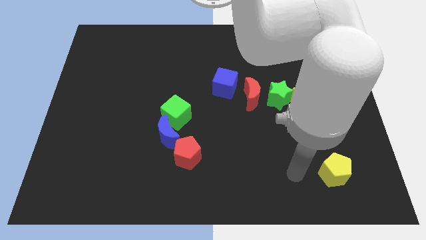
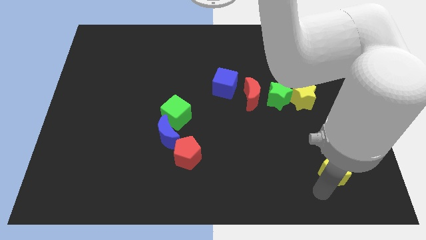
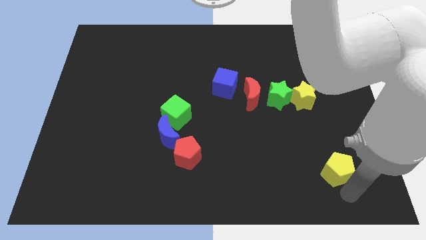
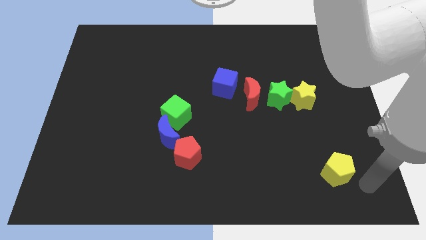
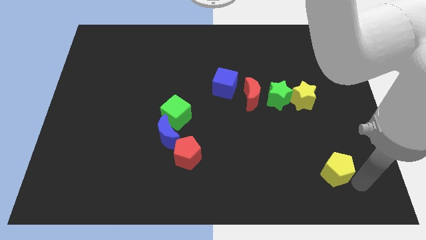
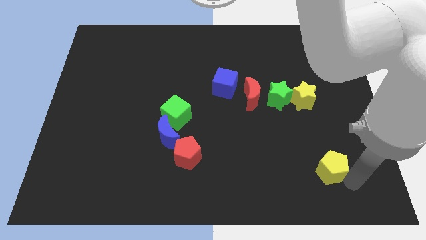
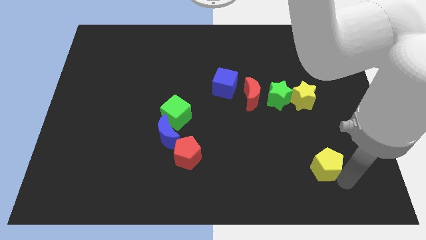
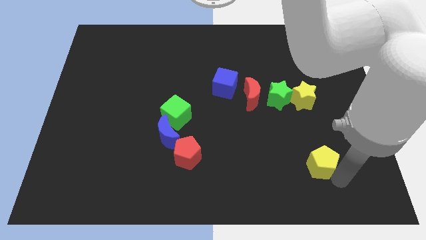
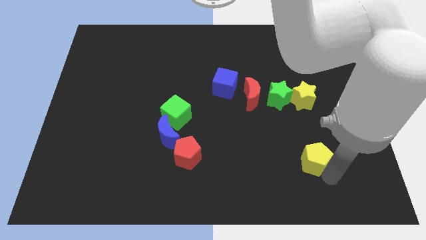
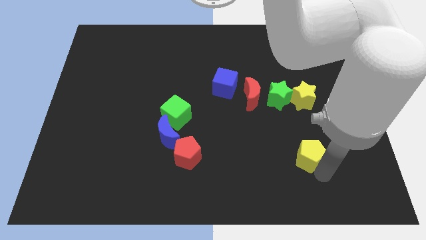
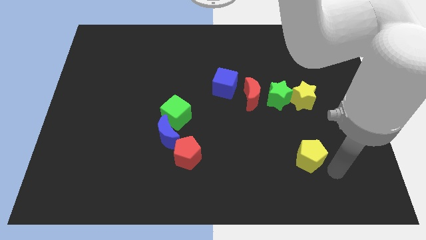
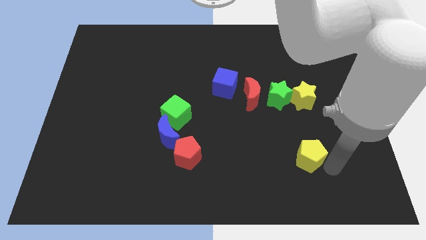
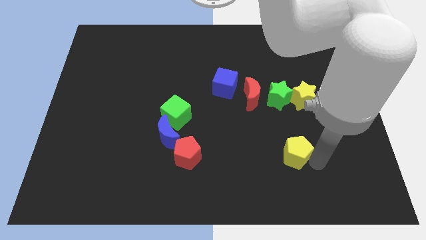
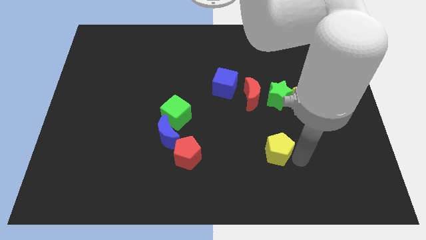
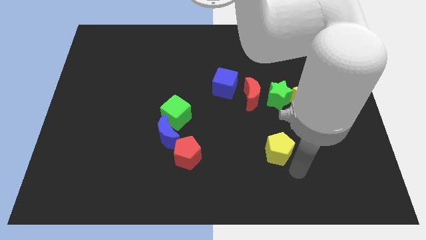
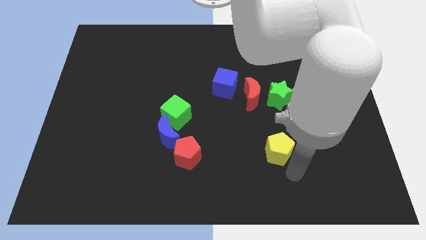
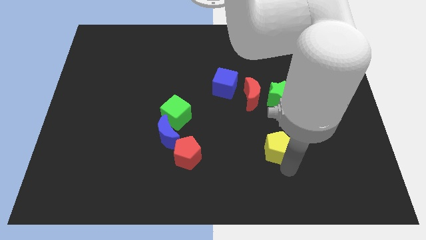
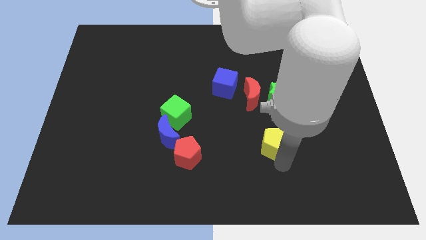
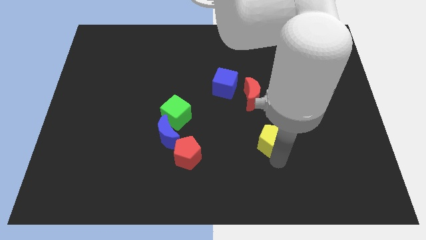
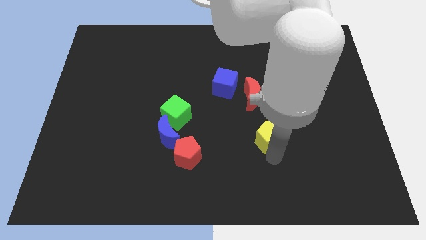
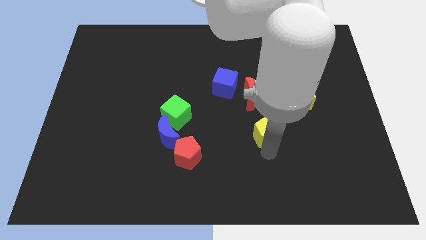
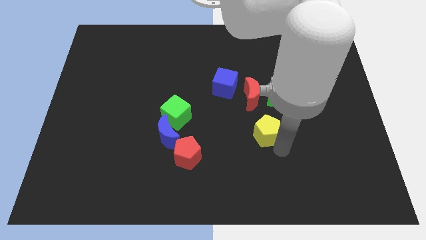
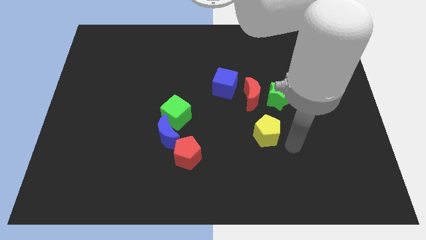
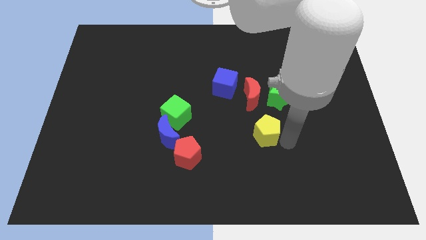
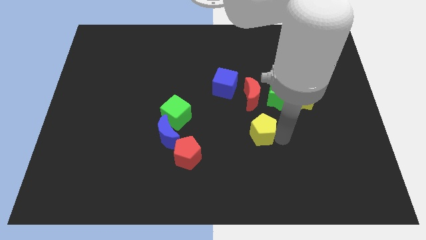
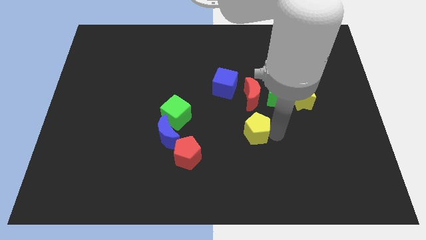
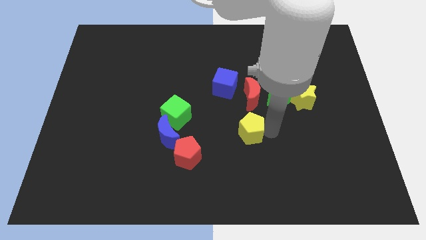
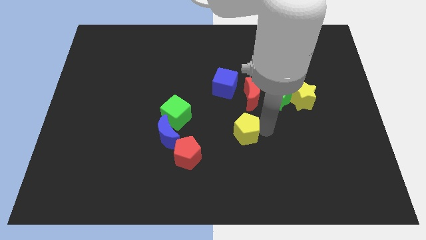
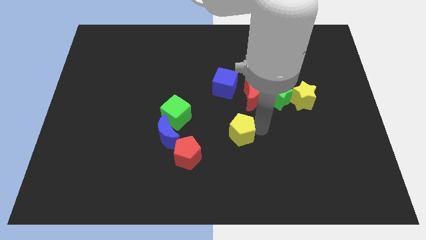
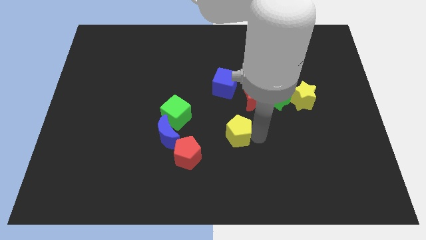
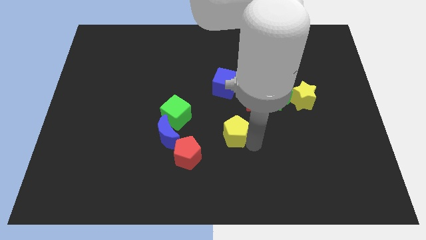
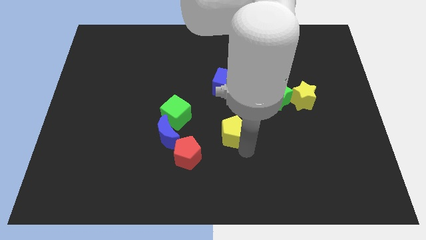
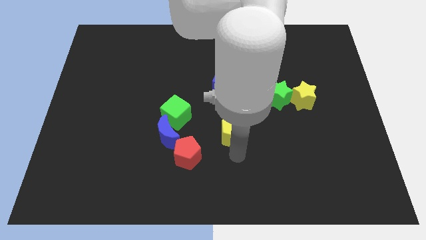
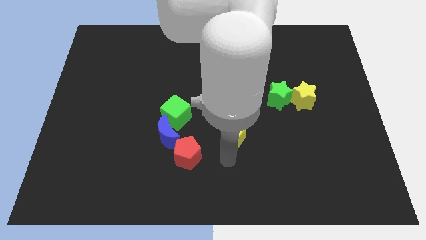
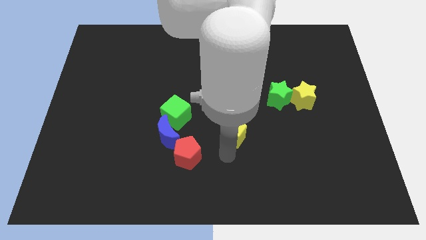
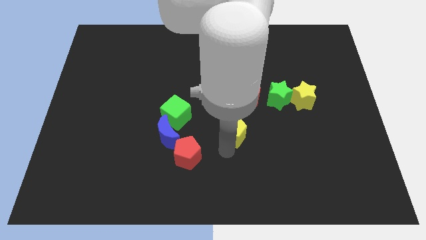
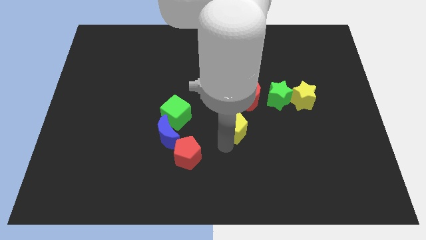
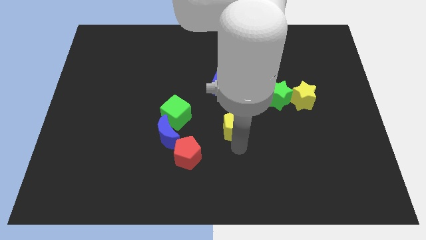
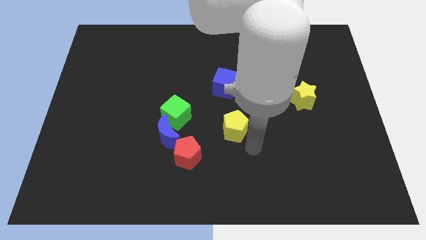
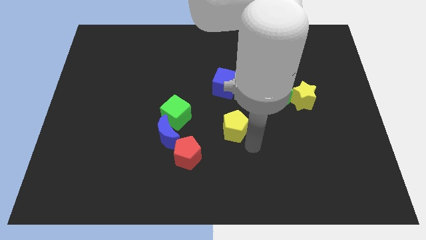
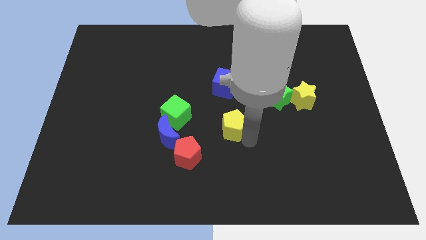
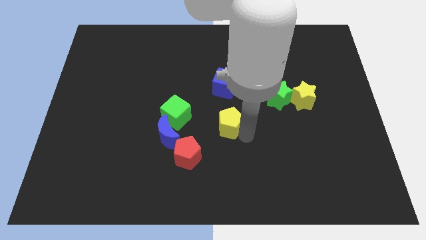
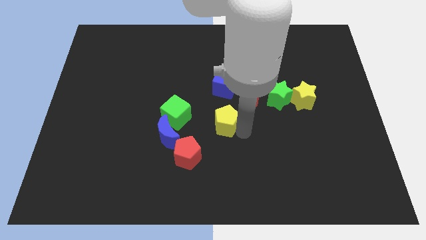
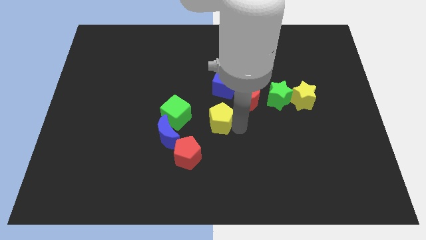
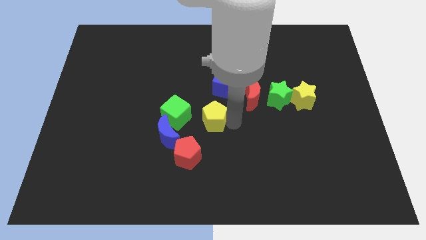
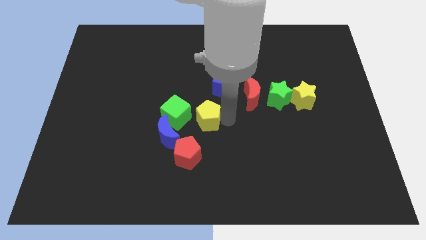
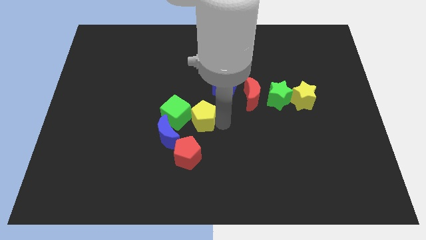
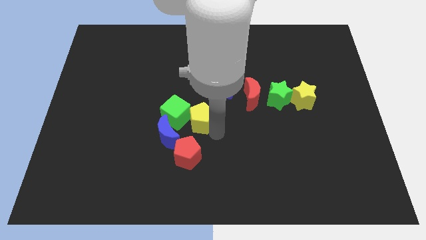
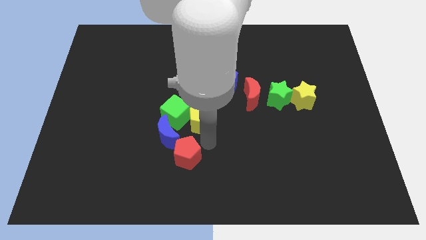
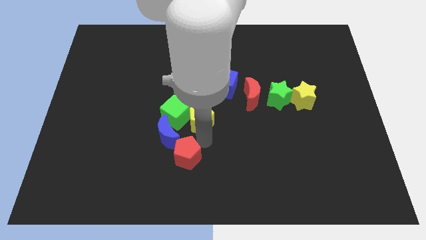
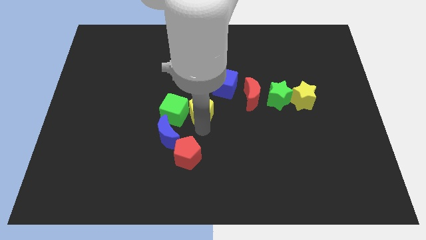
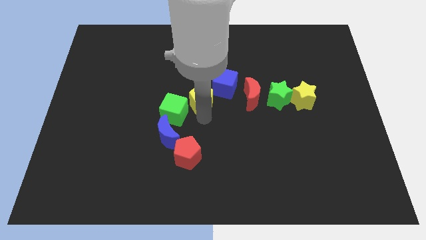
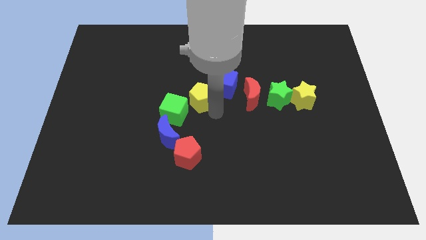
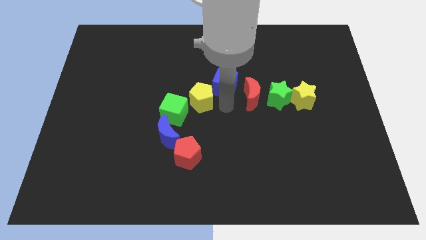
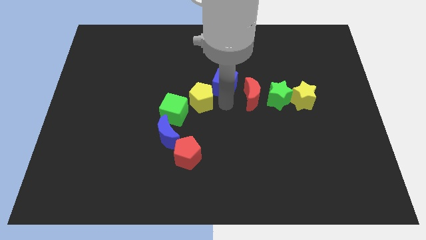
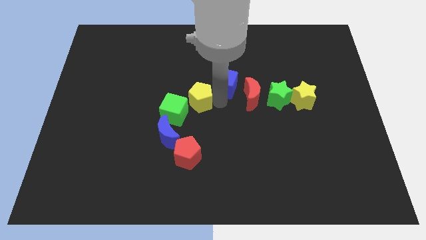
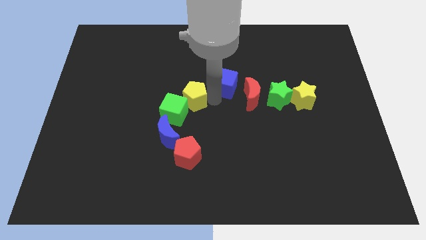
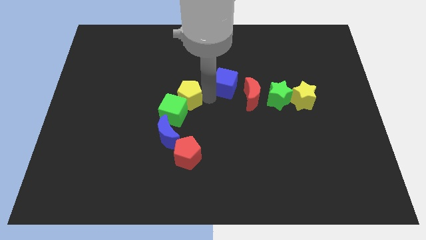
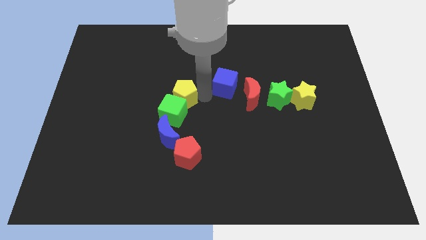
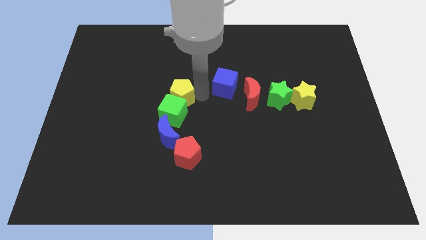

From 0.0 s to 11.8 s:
slide the yellow pentagon to the top left side of the green cube
